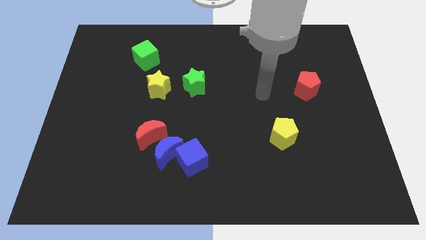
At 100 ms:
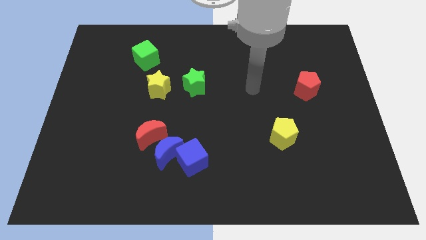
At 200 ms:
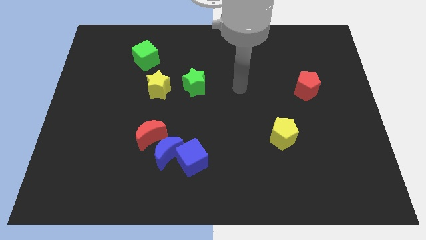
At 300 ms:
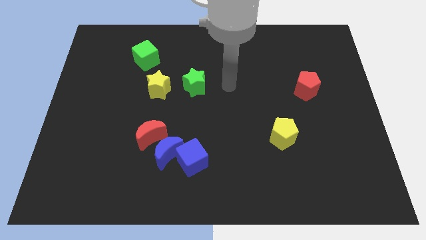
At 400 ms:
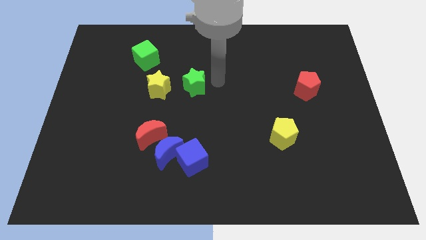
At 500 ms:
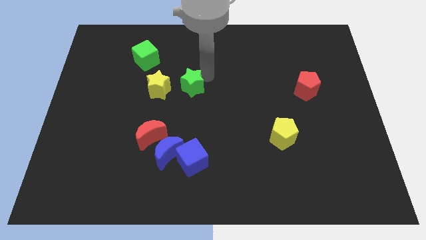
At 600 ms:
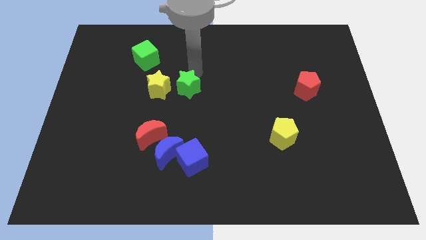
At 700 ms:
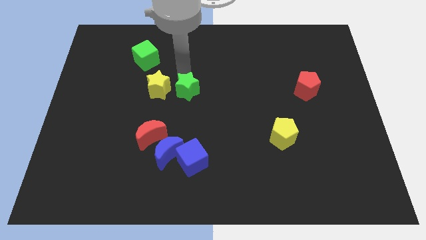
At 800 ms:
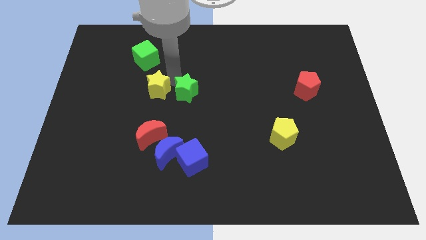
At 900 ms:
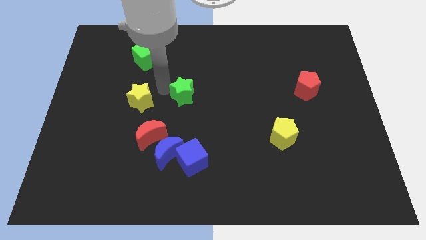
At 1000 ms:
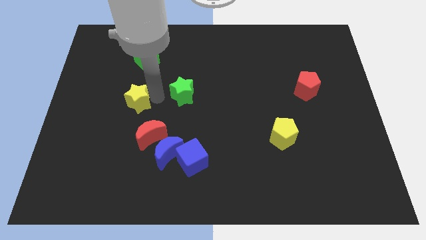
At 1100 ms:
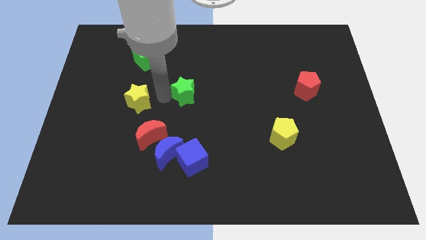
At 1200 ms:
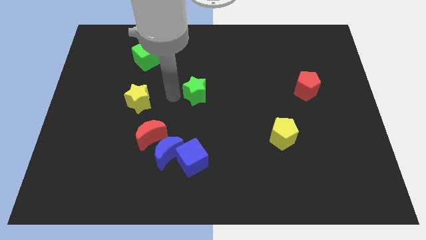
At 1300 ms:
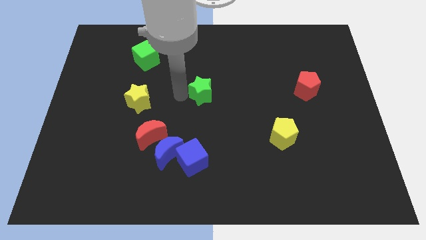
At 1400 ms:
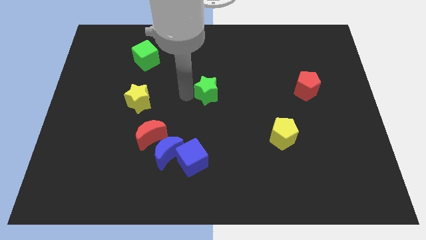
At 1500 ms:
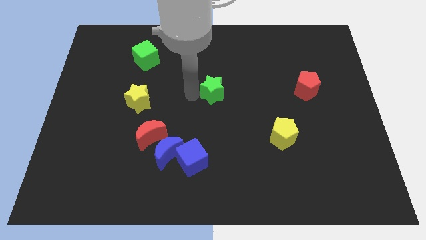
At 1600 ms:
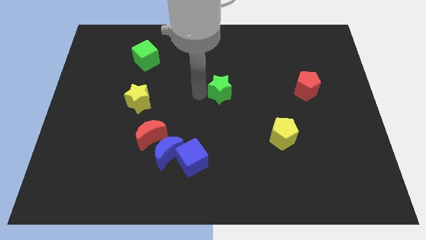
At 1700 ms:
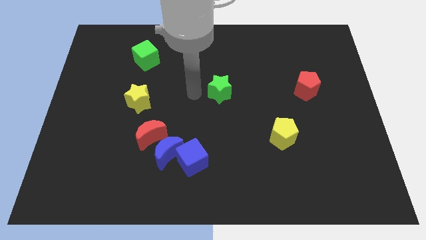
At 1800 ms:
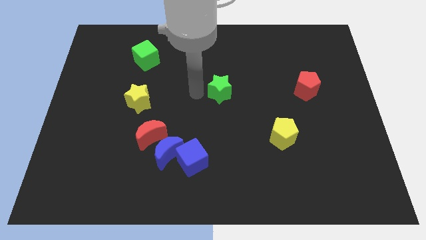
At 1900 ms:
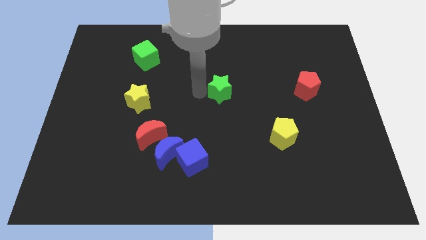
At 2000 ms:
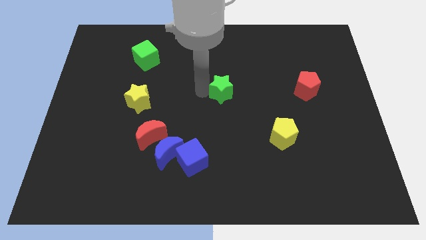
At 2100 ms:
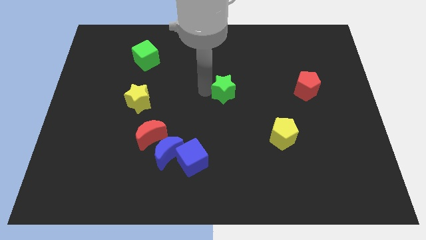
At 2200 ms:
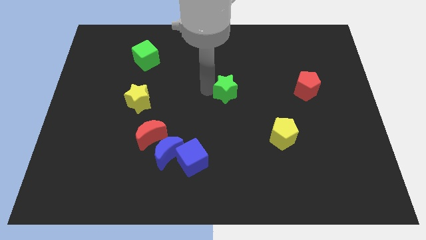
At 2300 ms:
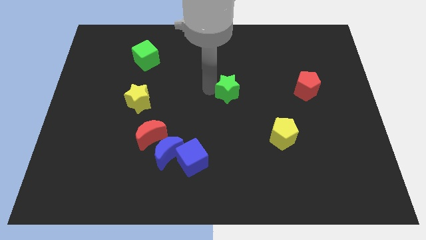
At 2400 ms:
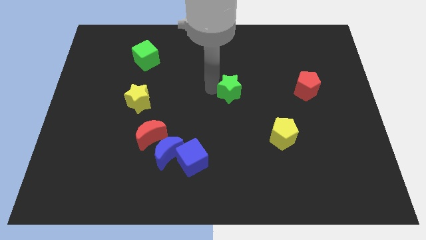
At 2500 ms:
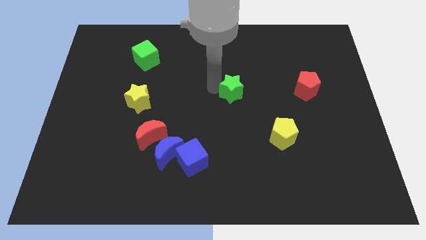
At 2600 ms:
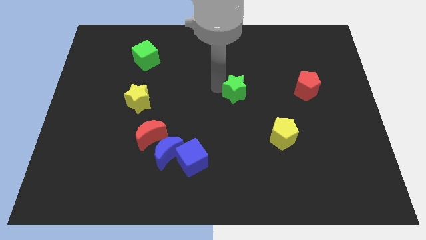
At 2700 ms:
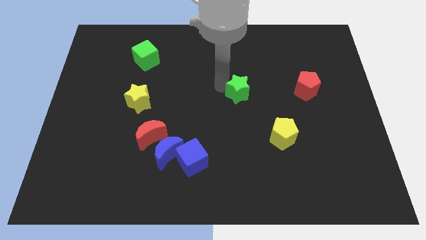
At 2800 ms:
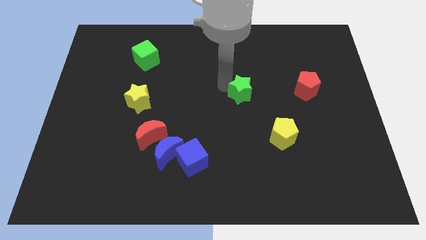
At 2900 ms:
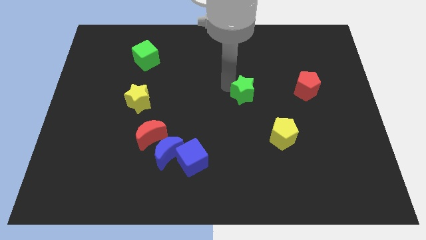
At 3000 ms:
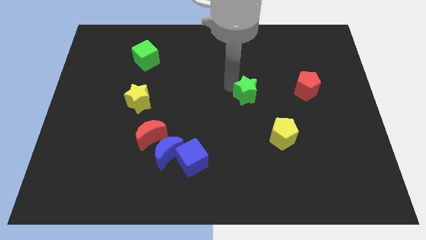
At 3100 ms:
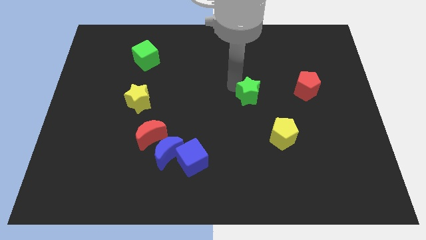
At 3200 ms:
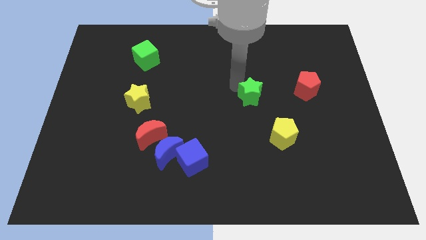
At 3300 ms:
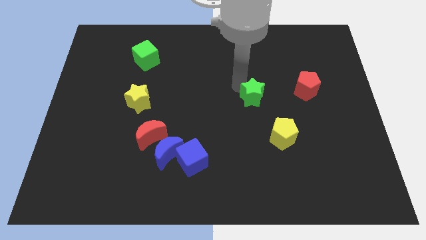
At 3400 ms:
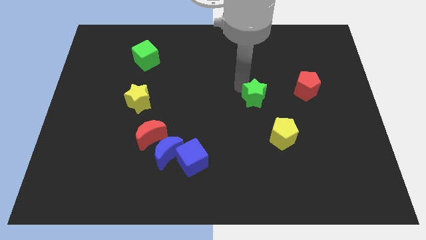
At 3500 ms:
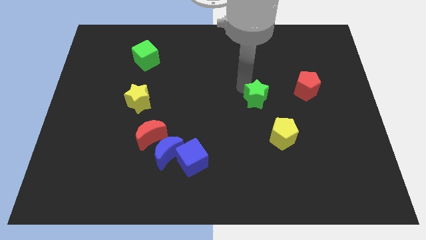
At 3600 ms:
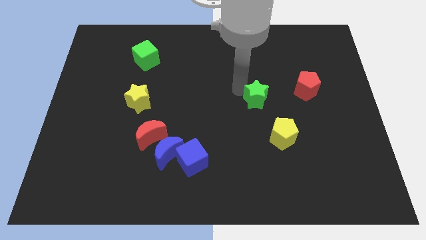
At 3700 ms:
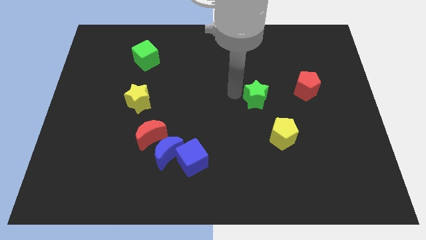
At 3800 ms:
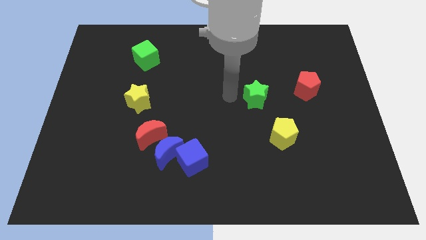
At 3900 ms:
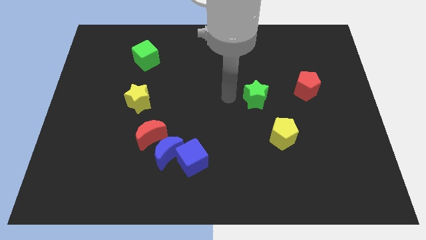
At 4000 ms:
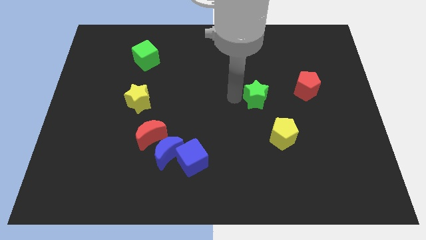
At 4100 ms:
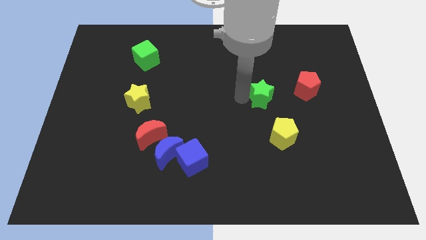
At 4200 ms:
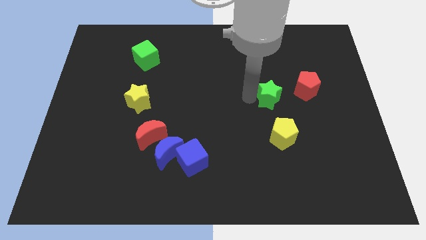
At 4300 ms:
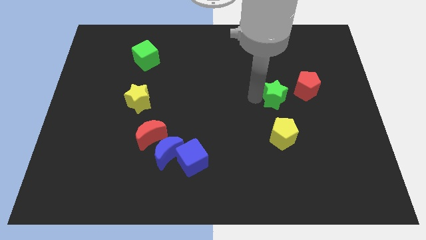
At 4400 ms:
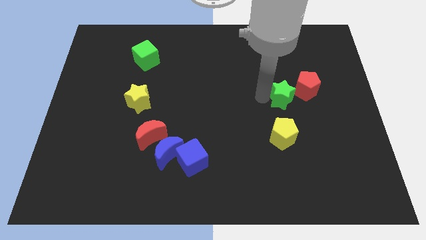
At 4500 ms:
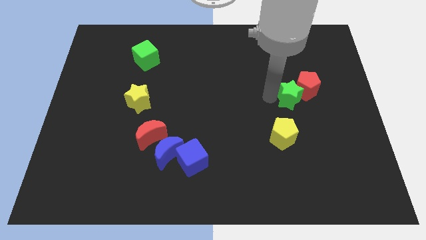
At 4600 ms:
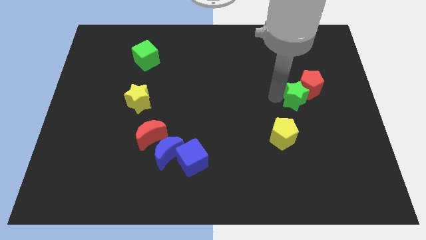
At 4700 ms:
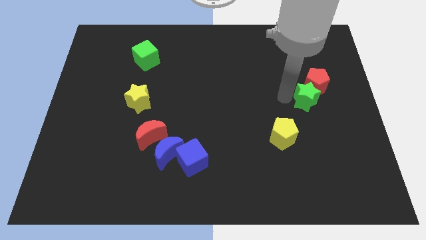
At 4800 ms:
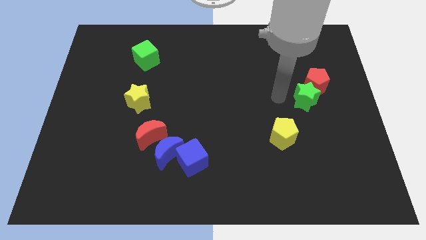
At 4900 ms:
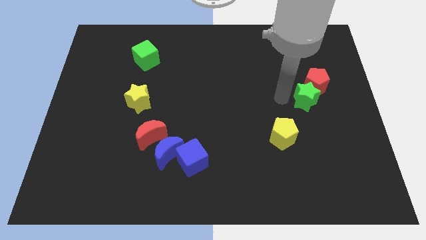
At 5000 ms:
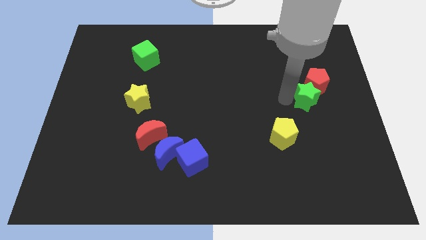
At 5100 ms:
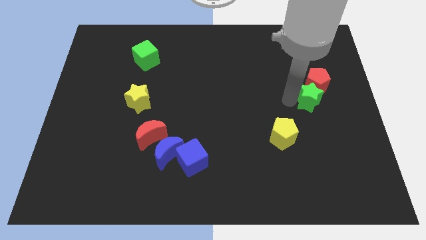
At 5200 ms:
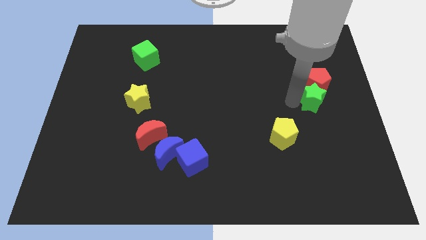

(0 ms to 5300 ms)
move the green star to the bottom right of the red pentagon

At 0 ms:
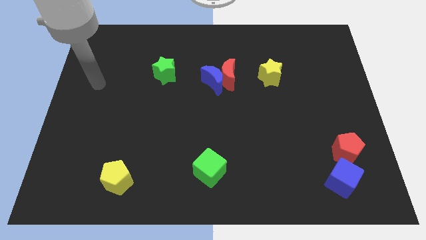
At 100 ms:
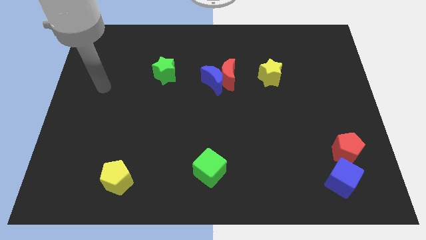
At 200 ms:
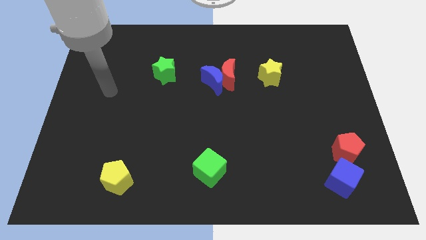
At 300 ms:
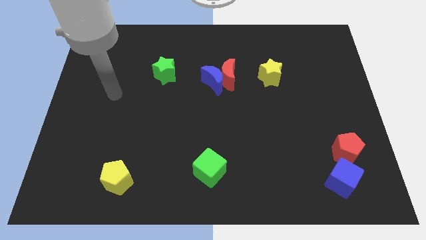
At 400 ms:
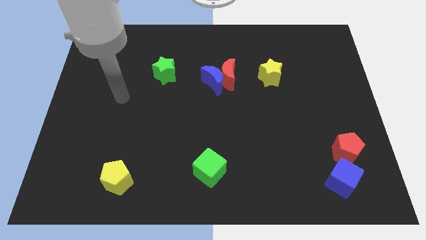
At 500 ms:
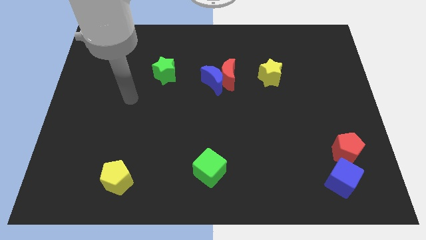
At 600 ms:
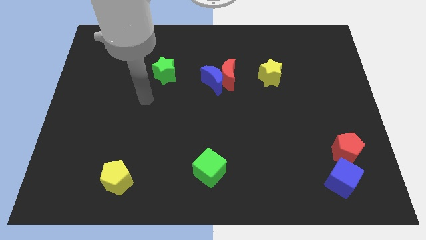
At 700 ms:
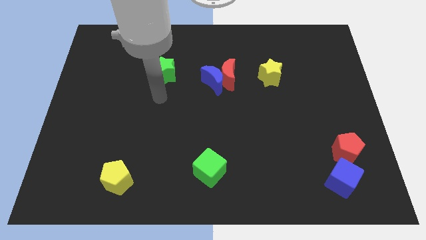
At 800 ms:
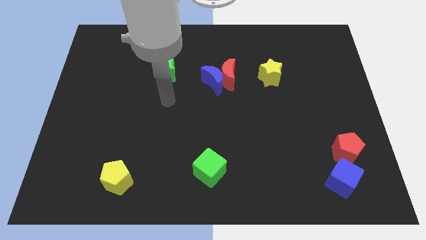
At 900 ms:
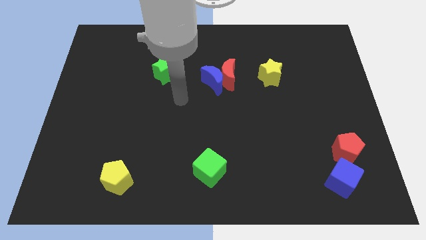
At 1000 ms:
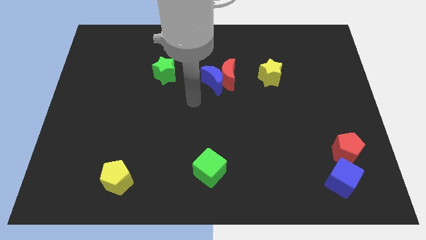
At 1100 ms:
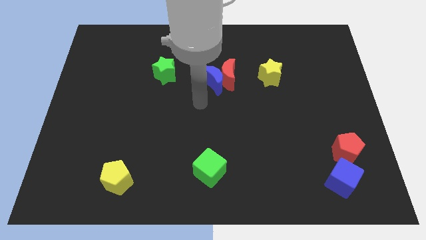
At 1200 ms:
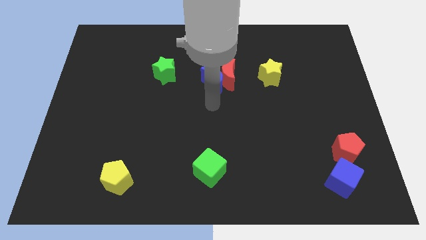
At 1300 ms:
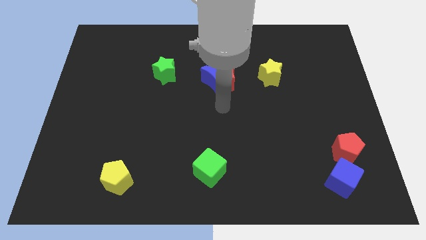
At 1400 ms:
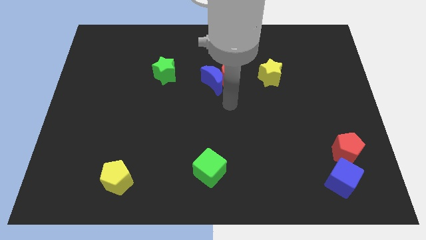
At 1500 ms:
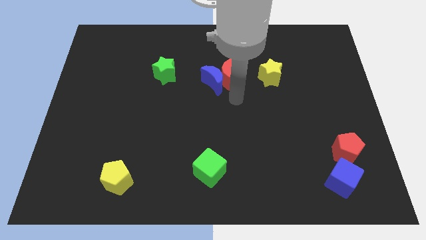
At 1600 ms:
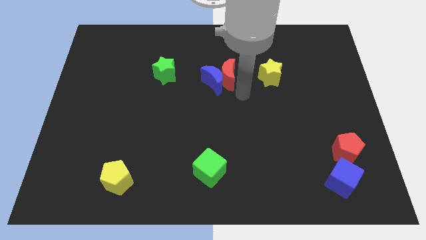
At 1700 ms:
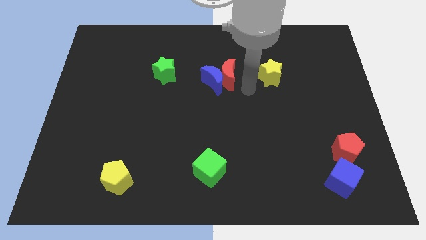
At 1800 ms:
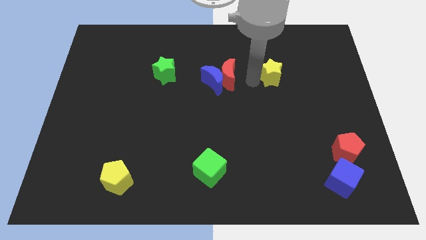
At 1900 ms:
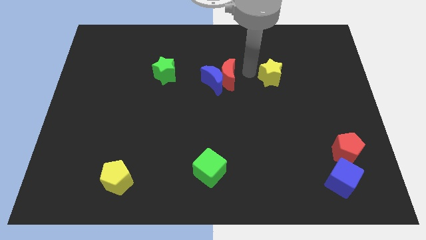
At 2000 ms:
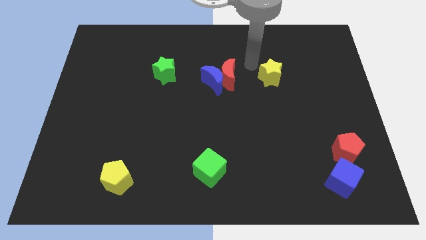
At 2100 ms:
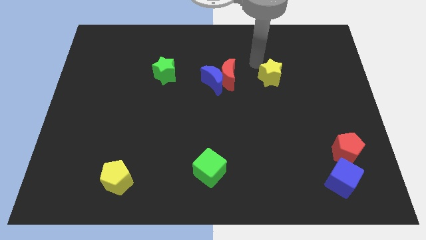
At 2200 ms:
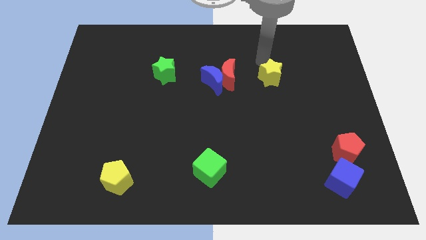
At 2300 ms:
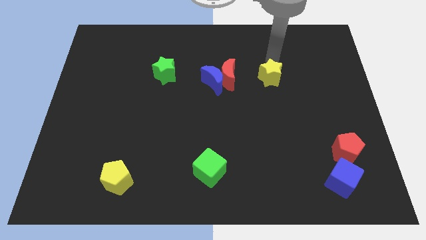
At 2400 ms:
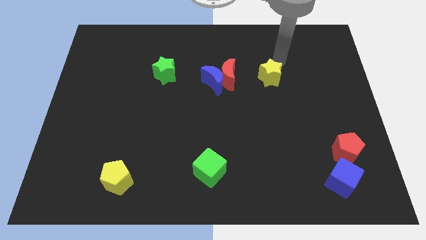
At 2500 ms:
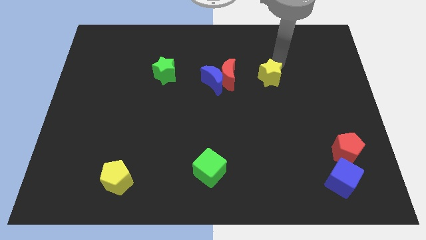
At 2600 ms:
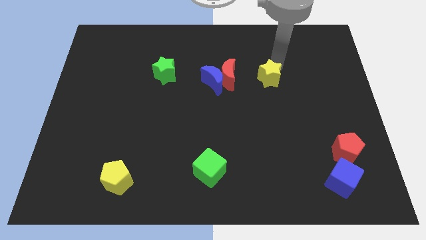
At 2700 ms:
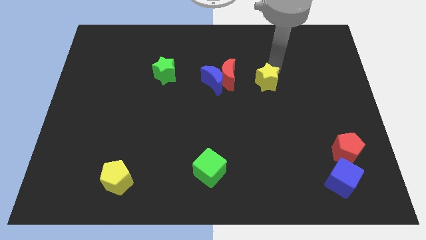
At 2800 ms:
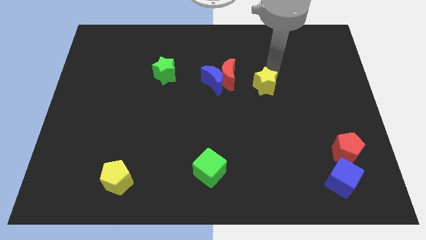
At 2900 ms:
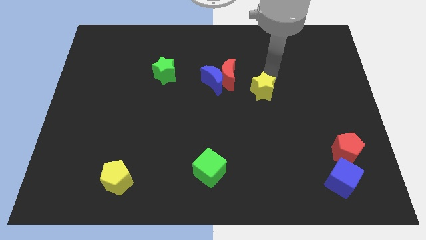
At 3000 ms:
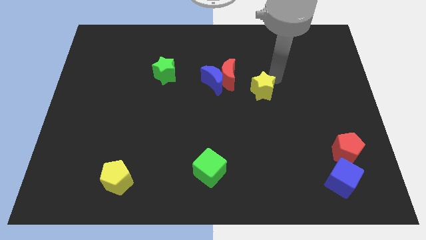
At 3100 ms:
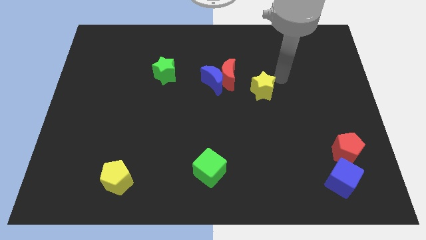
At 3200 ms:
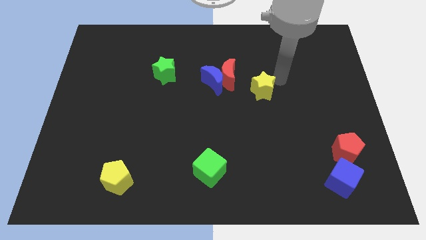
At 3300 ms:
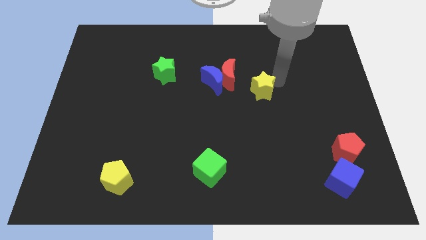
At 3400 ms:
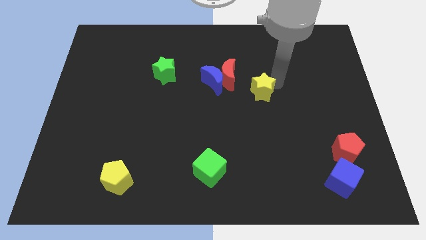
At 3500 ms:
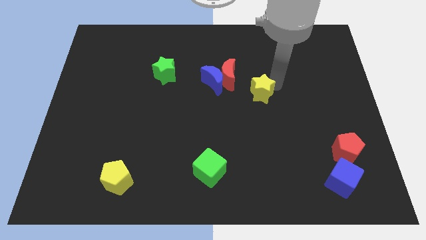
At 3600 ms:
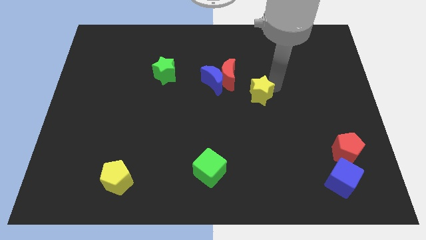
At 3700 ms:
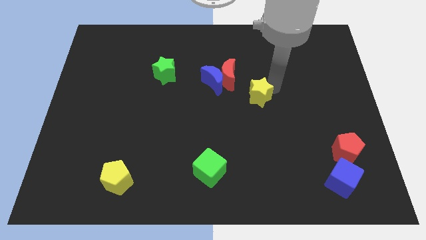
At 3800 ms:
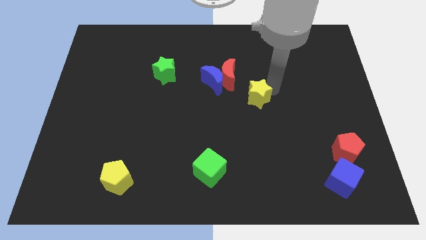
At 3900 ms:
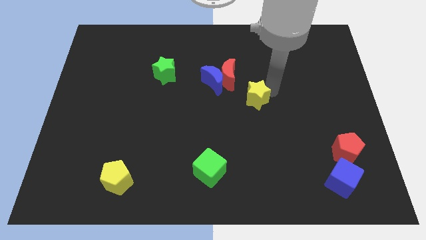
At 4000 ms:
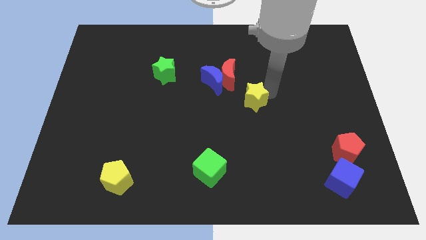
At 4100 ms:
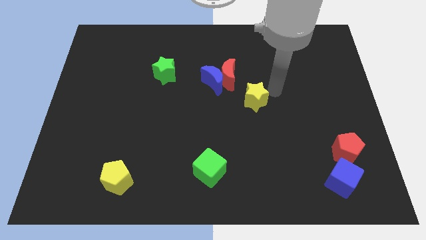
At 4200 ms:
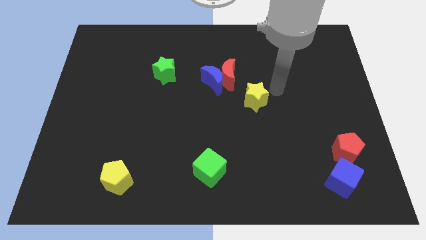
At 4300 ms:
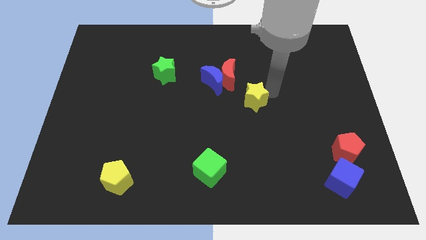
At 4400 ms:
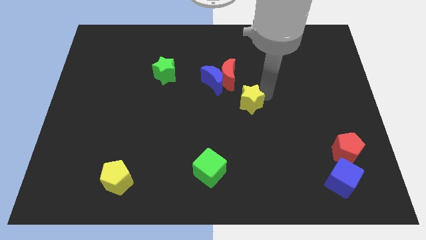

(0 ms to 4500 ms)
slide the yellow star to the bottom side of the red moon
